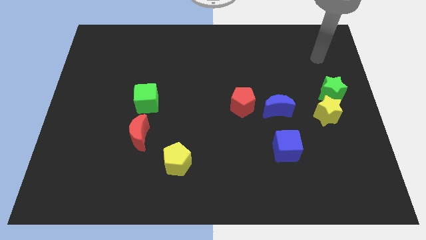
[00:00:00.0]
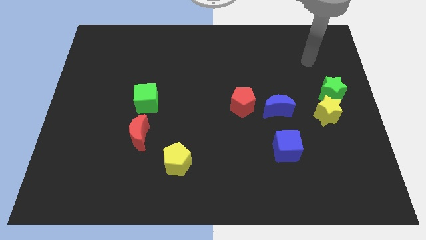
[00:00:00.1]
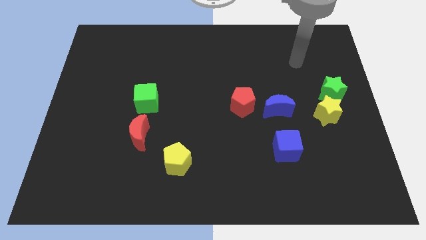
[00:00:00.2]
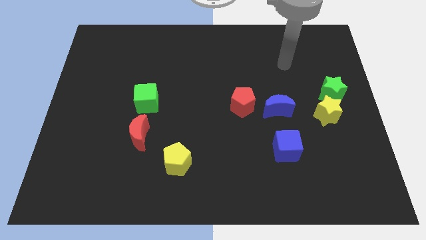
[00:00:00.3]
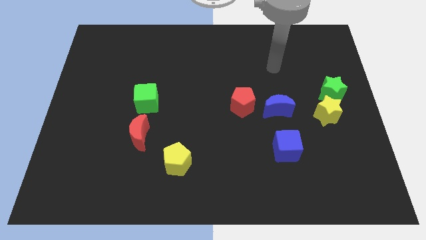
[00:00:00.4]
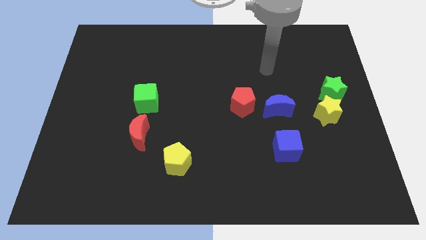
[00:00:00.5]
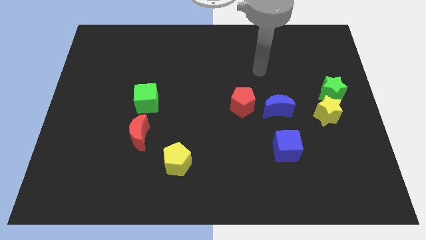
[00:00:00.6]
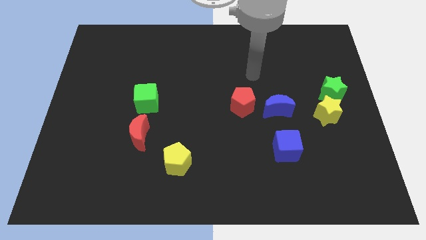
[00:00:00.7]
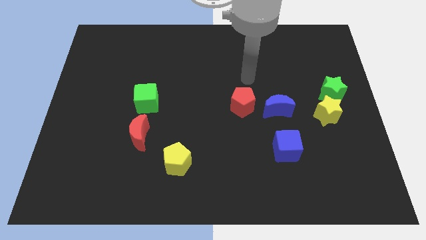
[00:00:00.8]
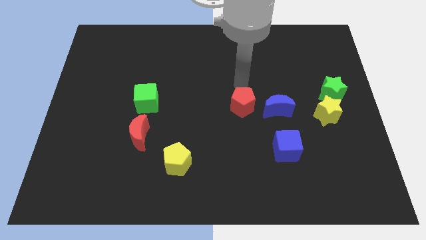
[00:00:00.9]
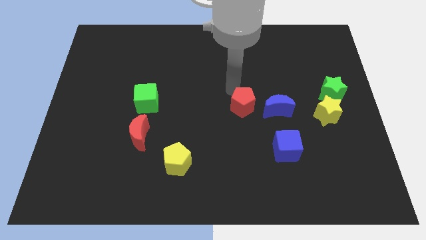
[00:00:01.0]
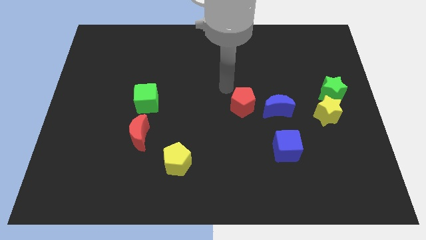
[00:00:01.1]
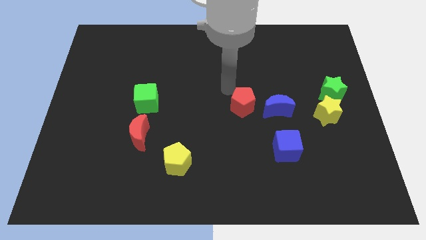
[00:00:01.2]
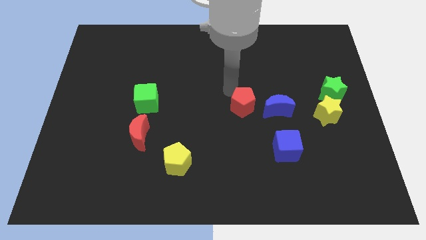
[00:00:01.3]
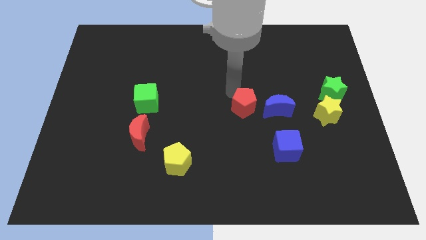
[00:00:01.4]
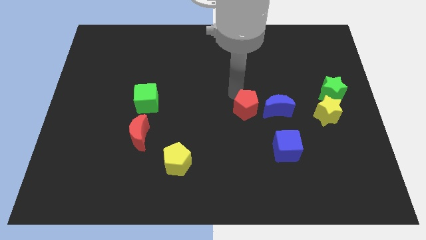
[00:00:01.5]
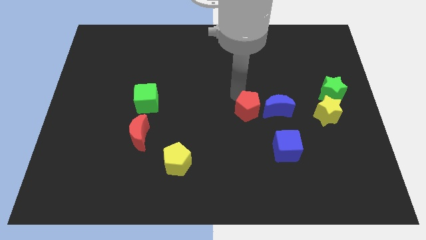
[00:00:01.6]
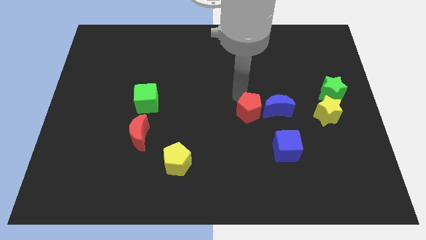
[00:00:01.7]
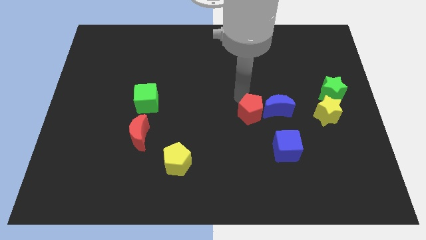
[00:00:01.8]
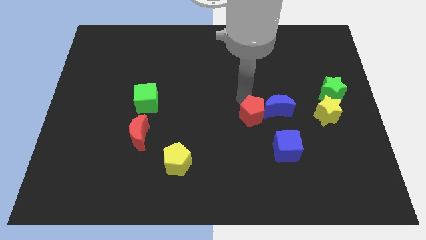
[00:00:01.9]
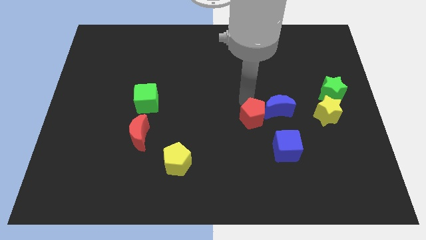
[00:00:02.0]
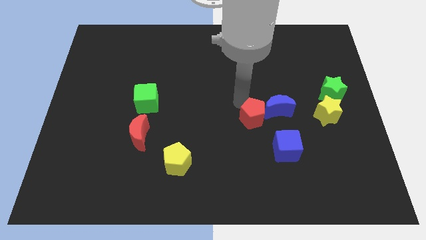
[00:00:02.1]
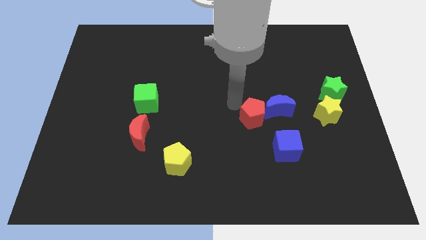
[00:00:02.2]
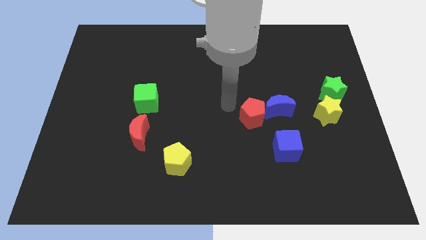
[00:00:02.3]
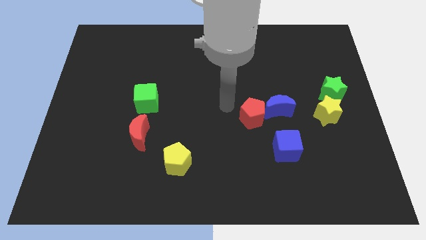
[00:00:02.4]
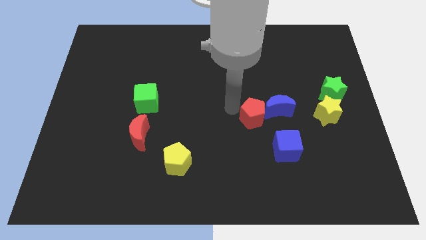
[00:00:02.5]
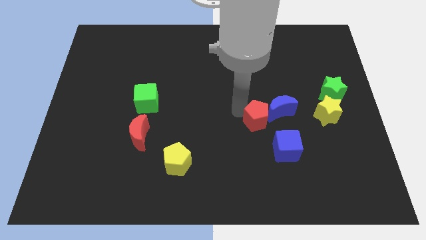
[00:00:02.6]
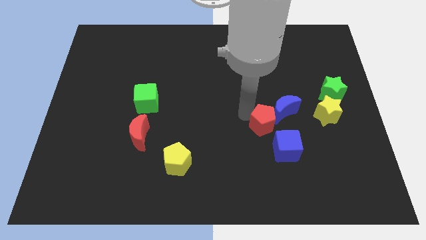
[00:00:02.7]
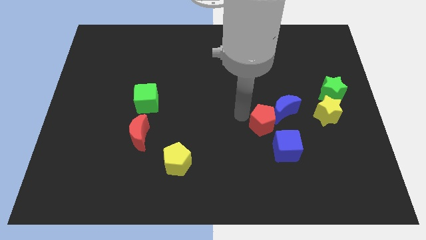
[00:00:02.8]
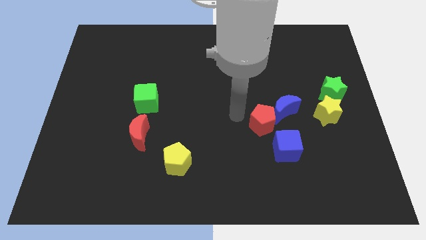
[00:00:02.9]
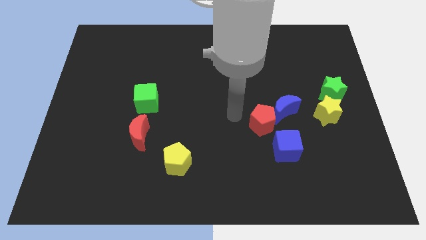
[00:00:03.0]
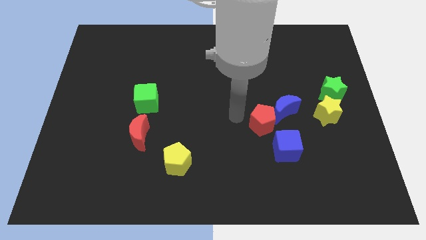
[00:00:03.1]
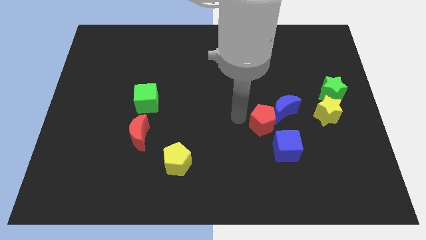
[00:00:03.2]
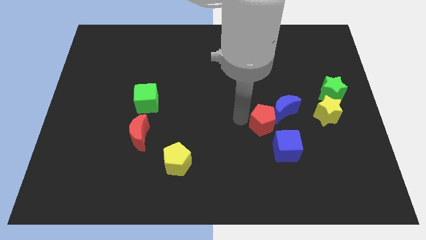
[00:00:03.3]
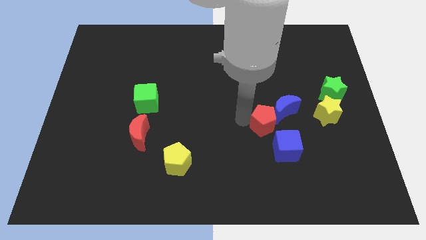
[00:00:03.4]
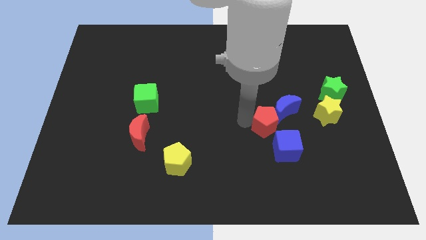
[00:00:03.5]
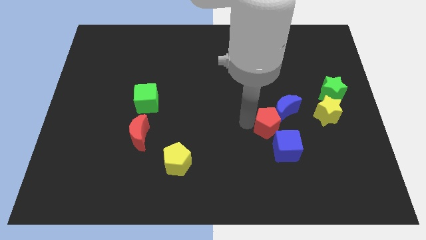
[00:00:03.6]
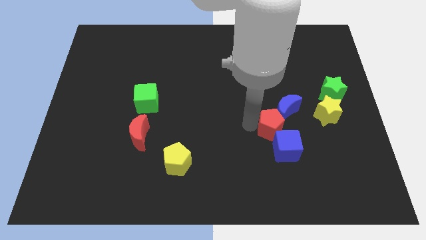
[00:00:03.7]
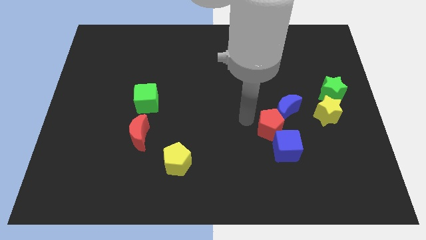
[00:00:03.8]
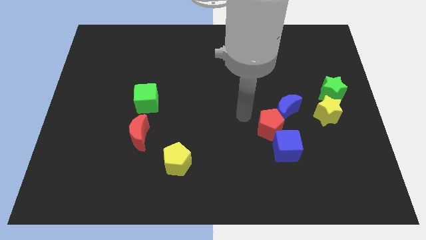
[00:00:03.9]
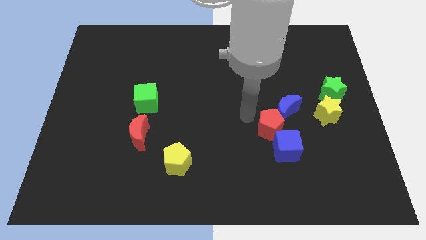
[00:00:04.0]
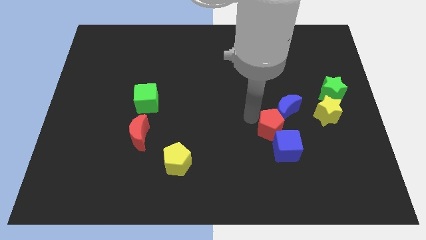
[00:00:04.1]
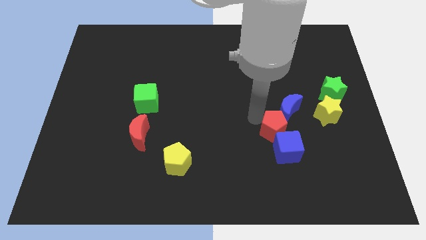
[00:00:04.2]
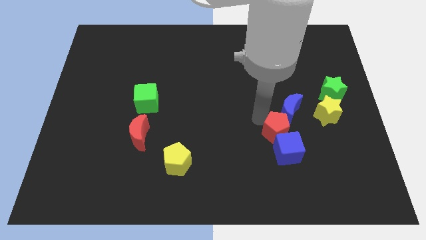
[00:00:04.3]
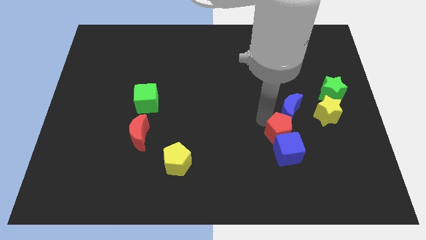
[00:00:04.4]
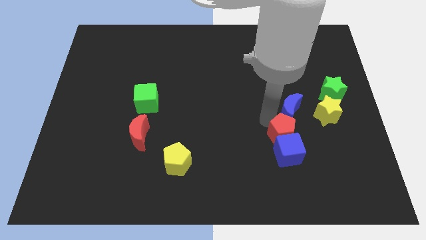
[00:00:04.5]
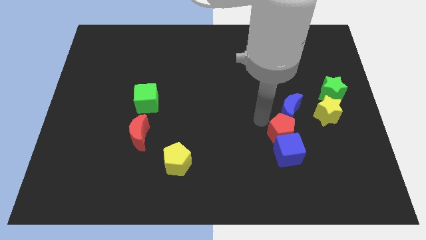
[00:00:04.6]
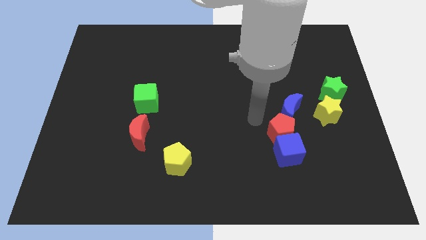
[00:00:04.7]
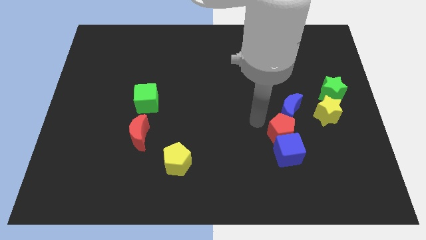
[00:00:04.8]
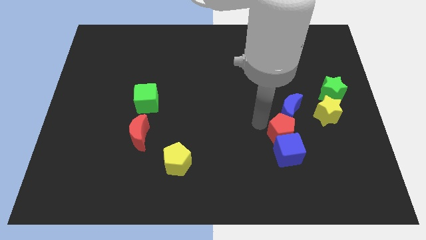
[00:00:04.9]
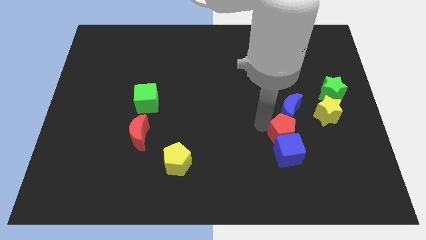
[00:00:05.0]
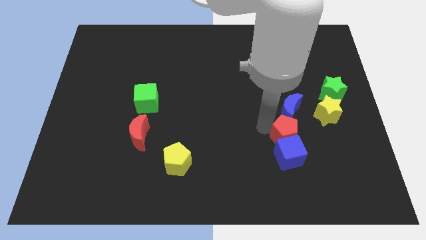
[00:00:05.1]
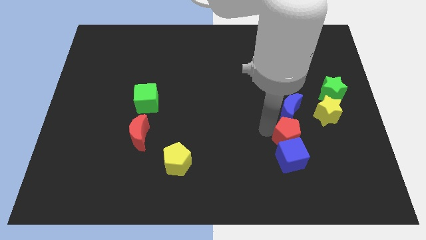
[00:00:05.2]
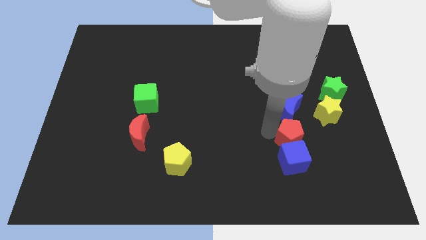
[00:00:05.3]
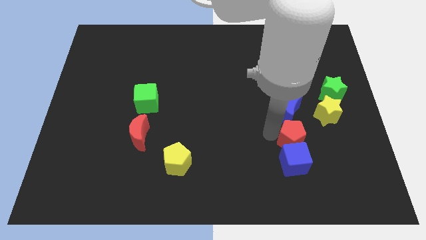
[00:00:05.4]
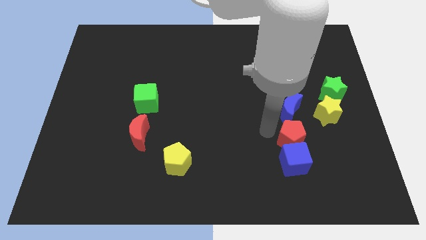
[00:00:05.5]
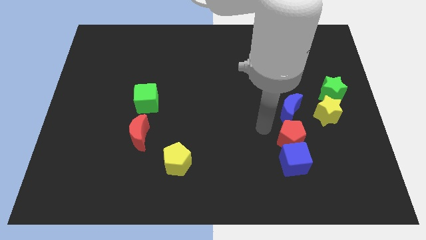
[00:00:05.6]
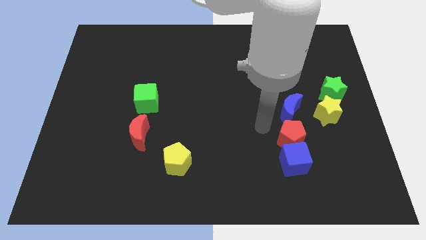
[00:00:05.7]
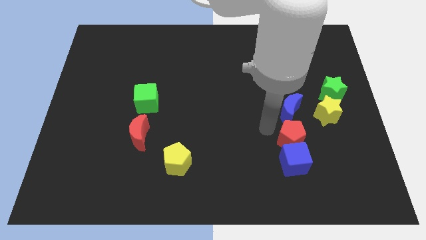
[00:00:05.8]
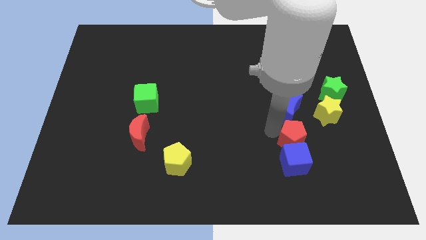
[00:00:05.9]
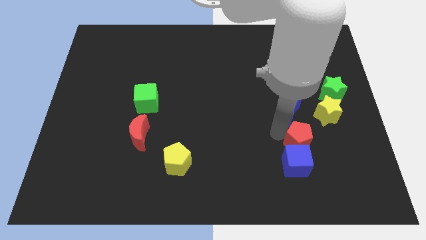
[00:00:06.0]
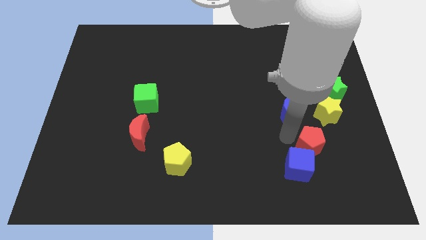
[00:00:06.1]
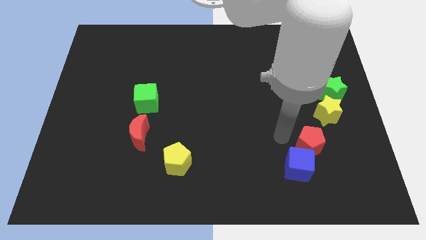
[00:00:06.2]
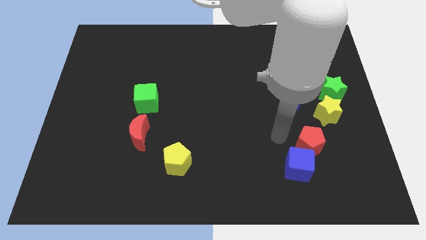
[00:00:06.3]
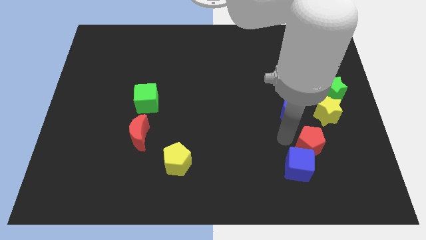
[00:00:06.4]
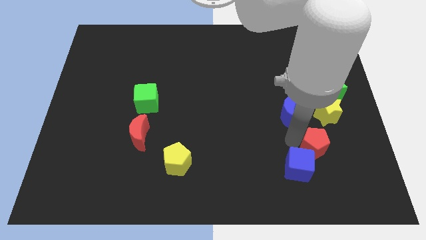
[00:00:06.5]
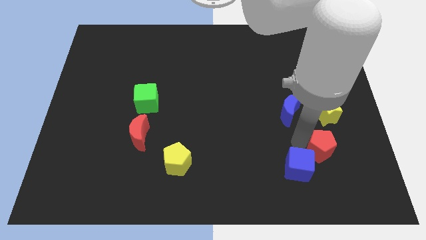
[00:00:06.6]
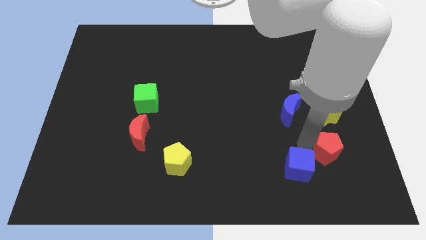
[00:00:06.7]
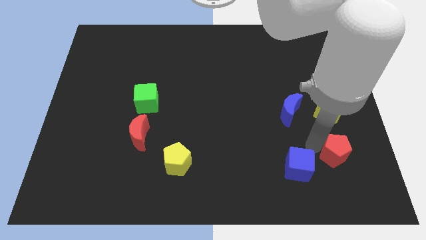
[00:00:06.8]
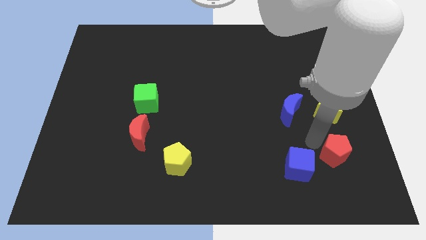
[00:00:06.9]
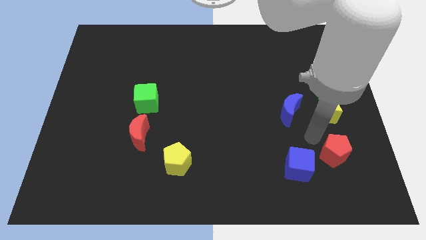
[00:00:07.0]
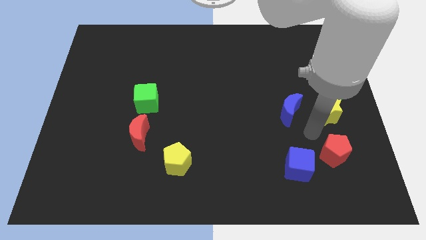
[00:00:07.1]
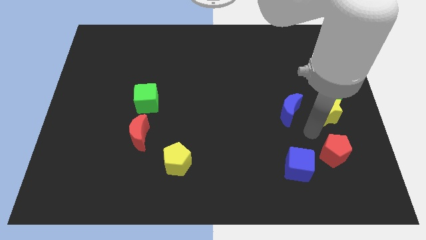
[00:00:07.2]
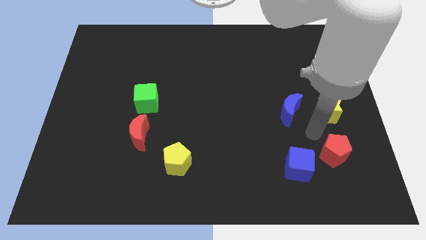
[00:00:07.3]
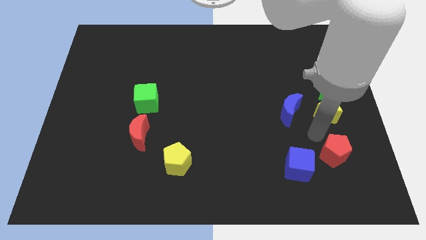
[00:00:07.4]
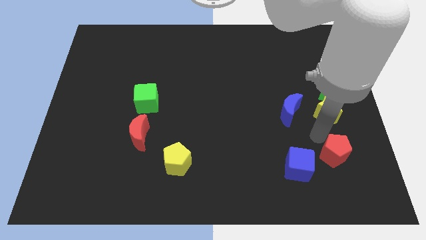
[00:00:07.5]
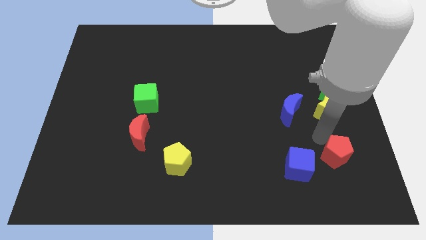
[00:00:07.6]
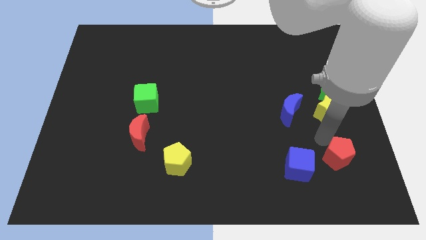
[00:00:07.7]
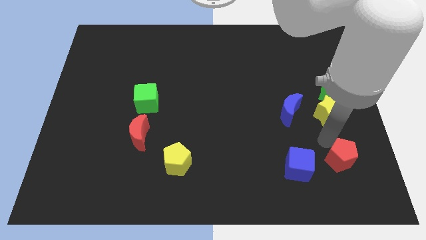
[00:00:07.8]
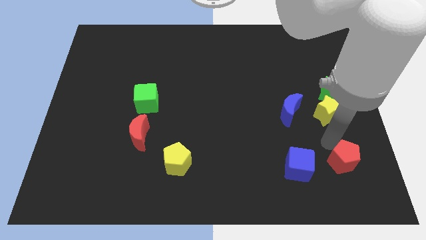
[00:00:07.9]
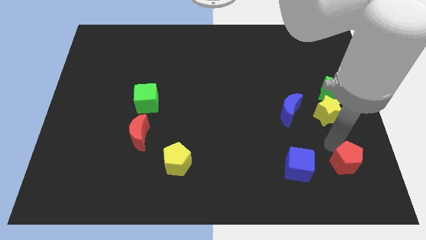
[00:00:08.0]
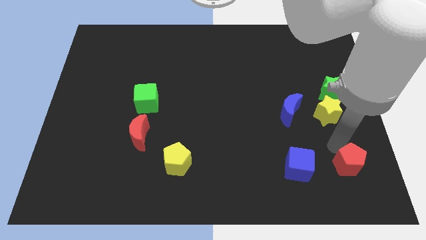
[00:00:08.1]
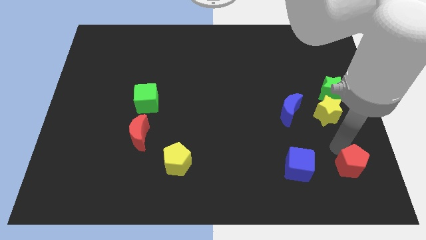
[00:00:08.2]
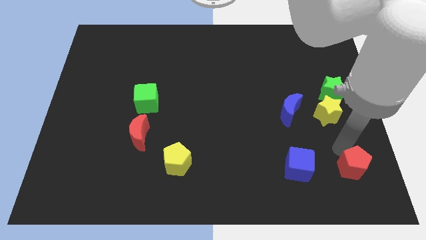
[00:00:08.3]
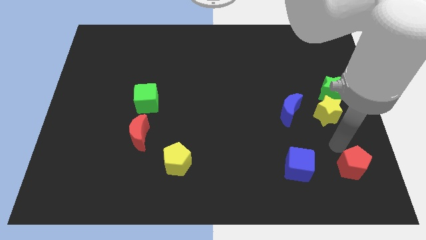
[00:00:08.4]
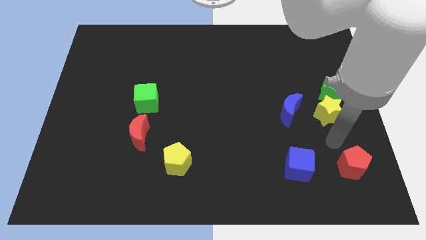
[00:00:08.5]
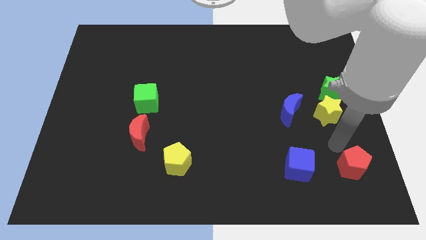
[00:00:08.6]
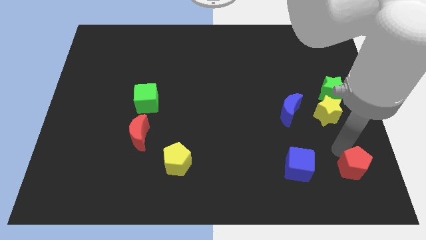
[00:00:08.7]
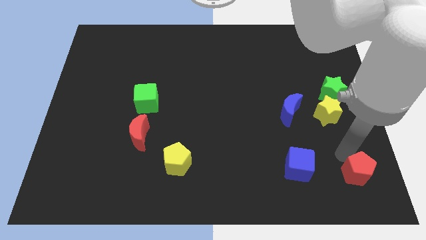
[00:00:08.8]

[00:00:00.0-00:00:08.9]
push the red pentagon to the lower right corner
